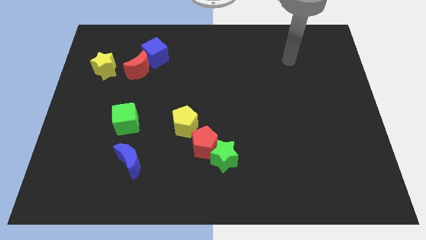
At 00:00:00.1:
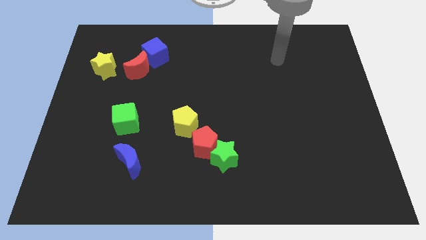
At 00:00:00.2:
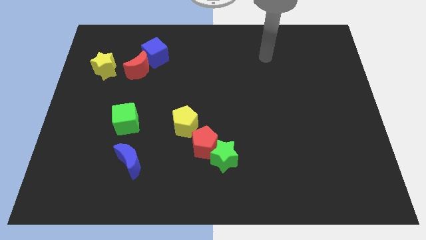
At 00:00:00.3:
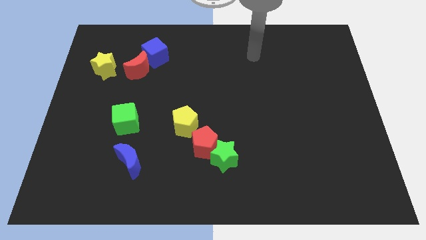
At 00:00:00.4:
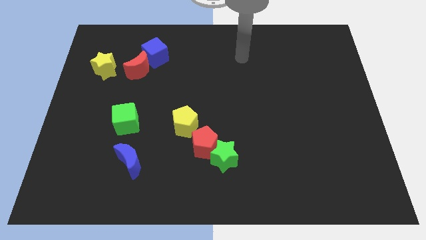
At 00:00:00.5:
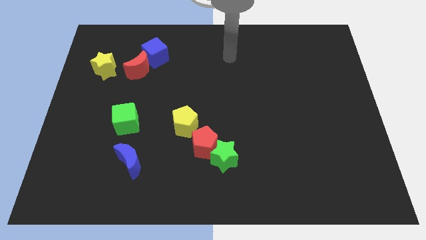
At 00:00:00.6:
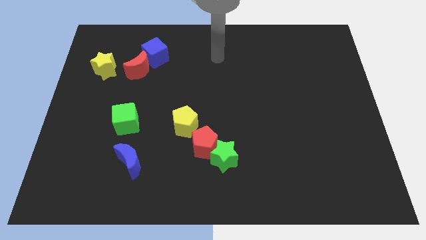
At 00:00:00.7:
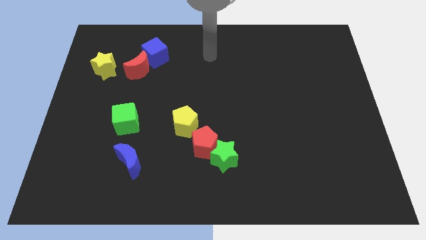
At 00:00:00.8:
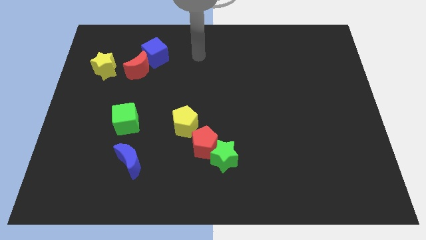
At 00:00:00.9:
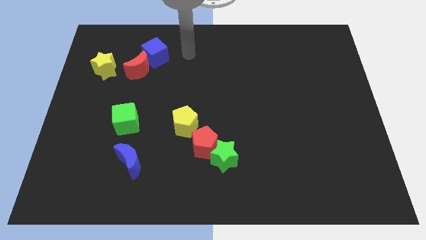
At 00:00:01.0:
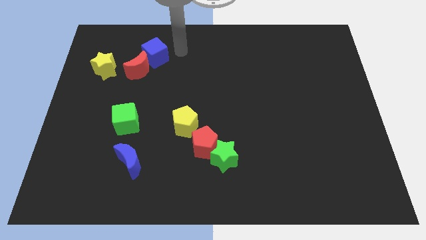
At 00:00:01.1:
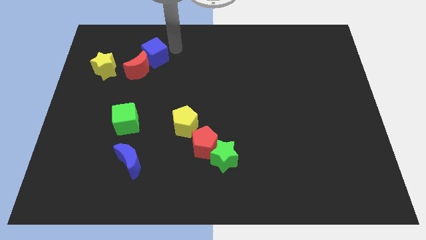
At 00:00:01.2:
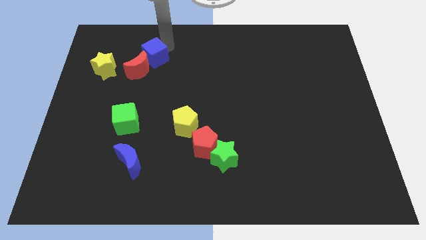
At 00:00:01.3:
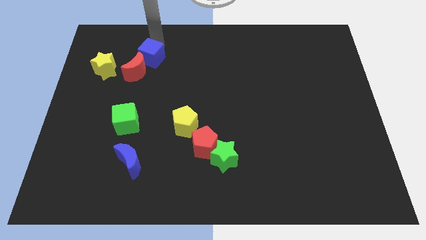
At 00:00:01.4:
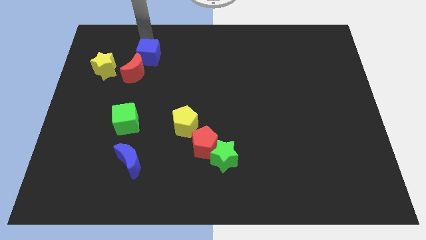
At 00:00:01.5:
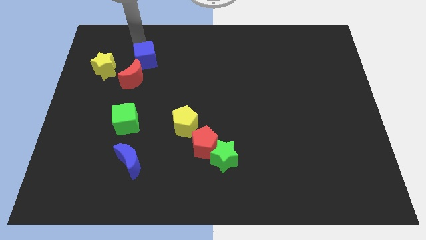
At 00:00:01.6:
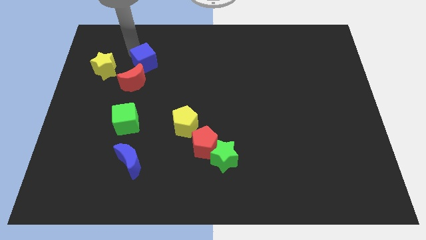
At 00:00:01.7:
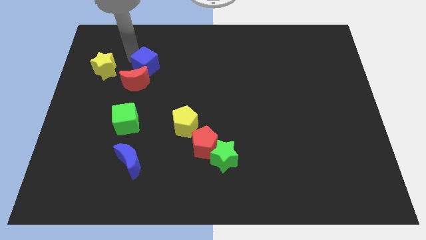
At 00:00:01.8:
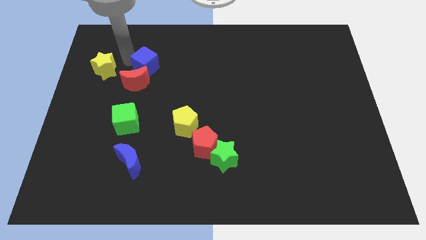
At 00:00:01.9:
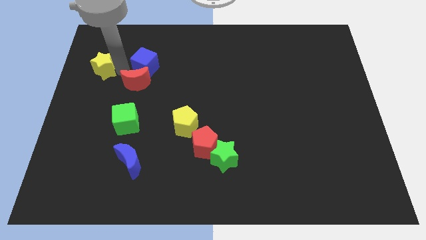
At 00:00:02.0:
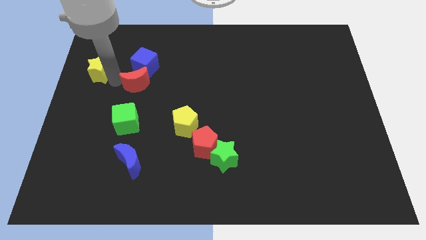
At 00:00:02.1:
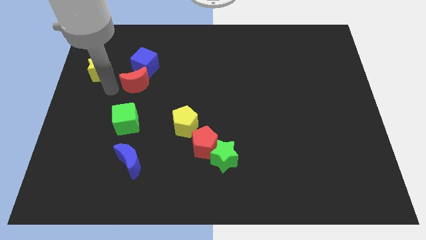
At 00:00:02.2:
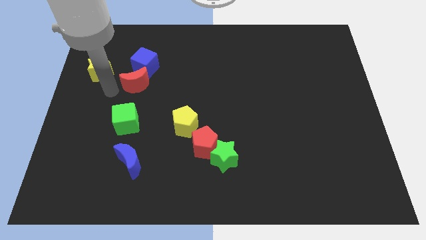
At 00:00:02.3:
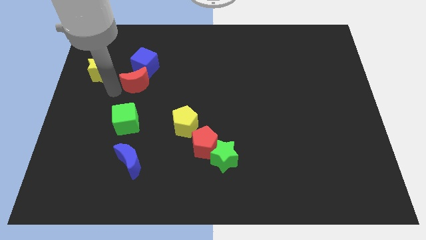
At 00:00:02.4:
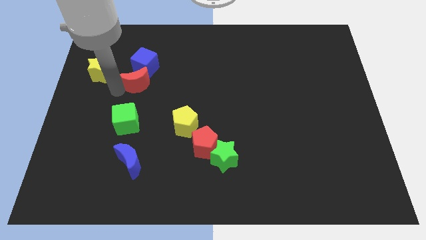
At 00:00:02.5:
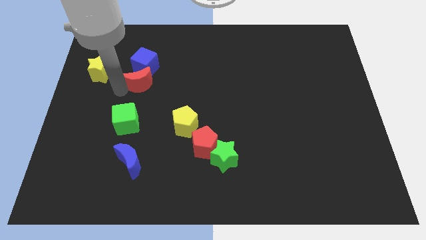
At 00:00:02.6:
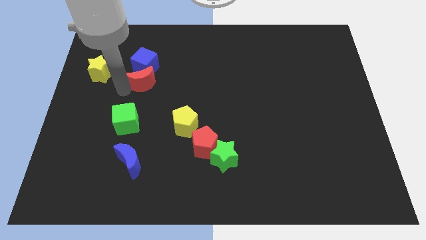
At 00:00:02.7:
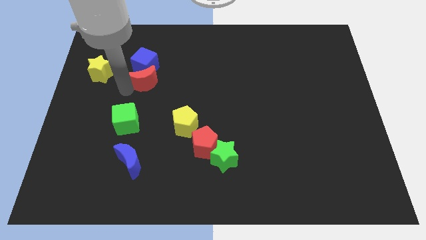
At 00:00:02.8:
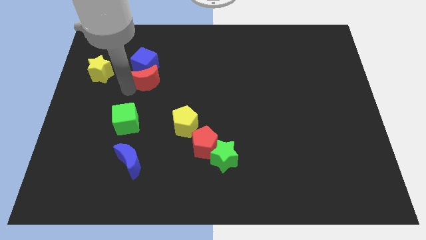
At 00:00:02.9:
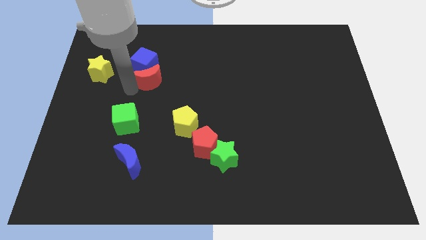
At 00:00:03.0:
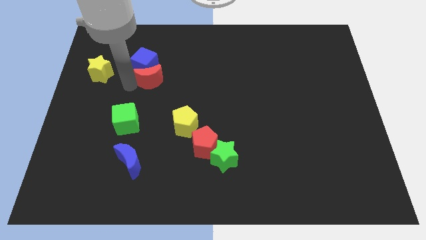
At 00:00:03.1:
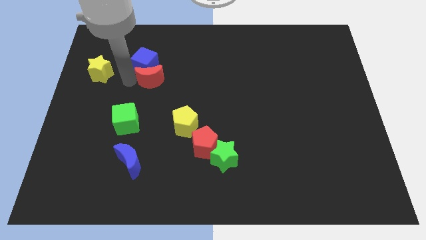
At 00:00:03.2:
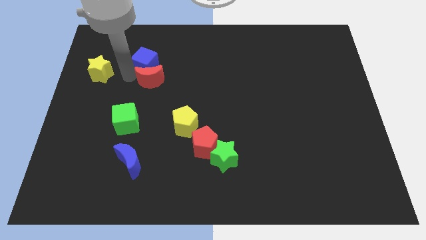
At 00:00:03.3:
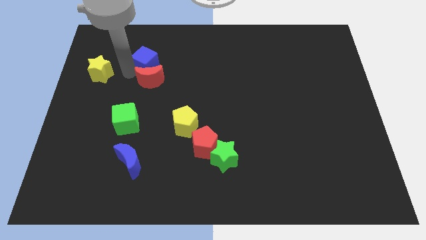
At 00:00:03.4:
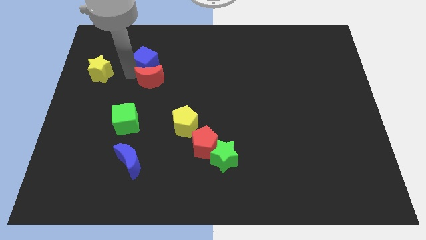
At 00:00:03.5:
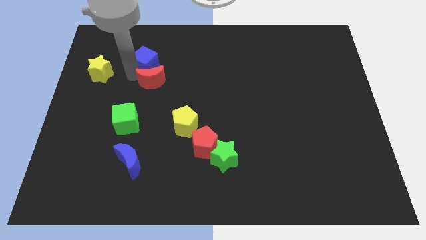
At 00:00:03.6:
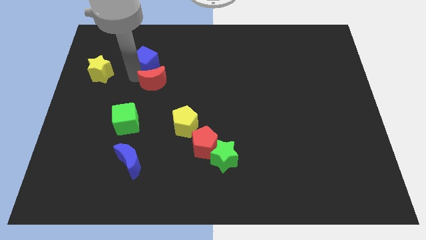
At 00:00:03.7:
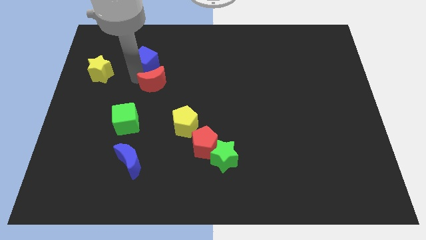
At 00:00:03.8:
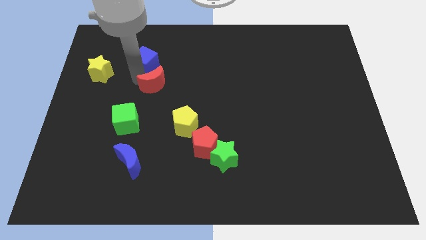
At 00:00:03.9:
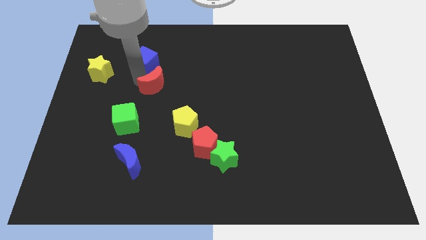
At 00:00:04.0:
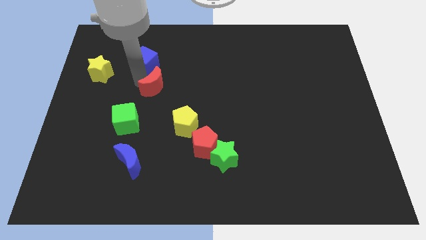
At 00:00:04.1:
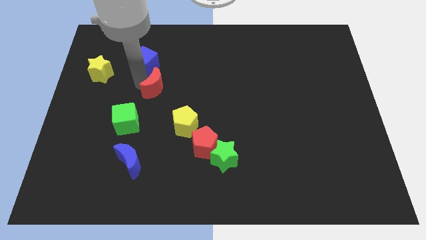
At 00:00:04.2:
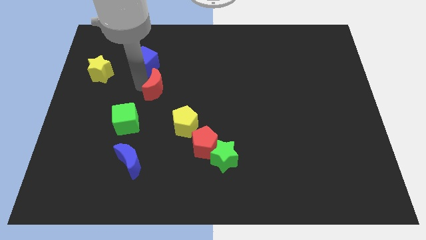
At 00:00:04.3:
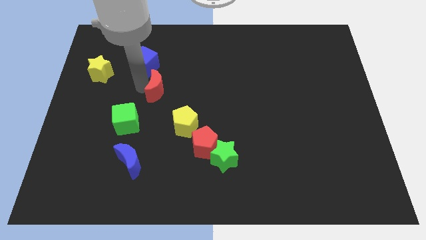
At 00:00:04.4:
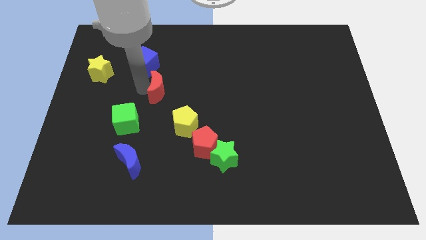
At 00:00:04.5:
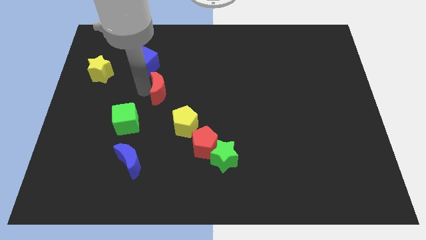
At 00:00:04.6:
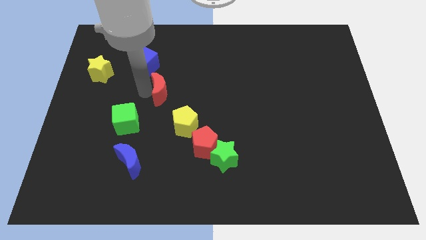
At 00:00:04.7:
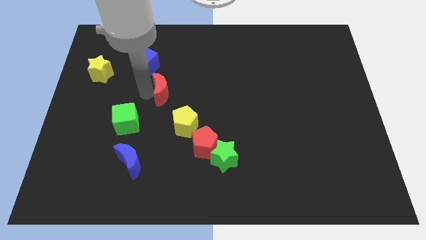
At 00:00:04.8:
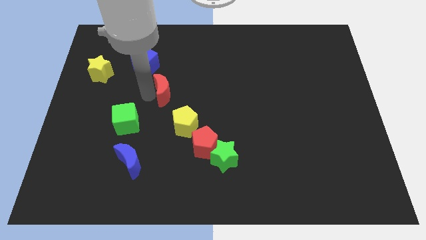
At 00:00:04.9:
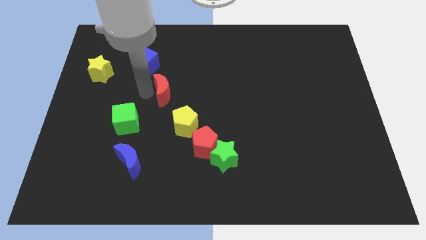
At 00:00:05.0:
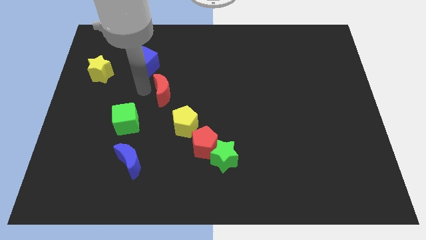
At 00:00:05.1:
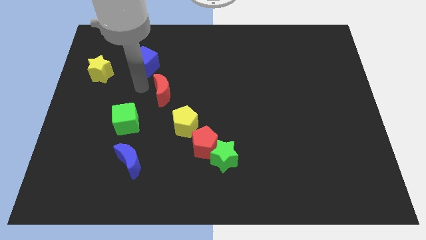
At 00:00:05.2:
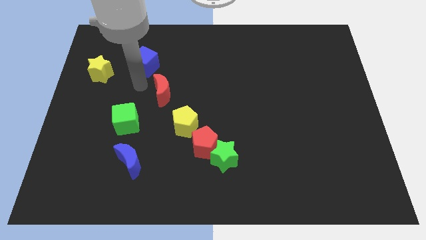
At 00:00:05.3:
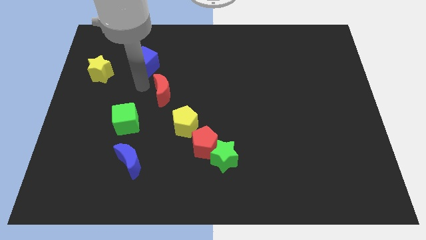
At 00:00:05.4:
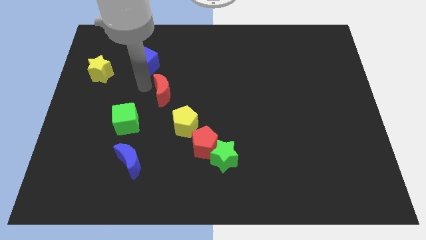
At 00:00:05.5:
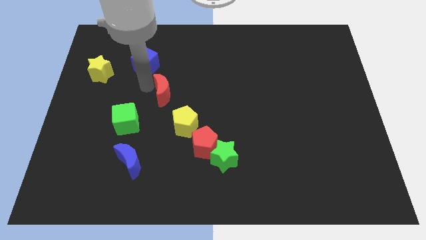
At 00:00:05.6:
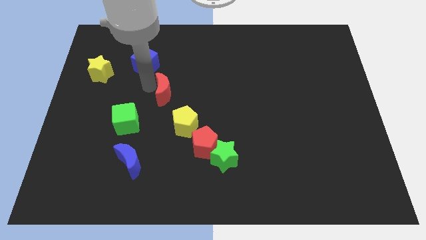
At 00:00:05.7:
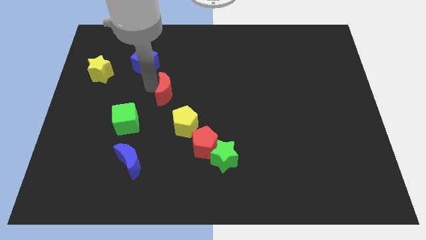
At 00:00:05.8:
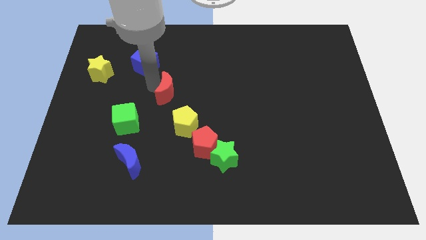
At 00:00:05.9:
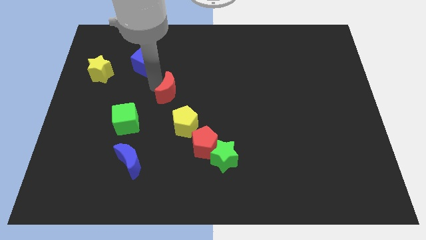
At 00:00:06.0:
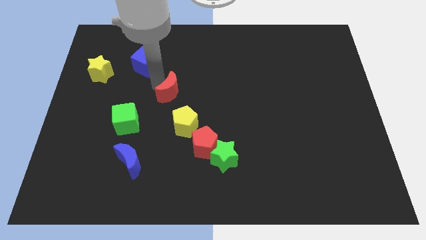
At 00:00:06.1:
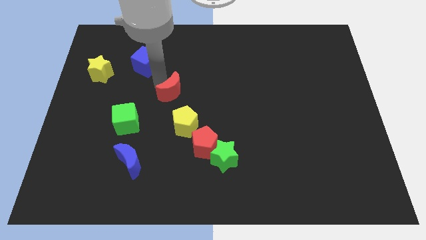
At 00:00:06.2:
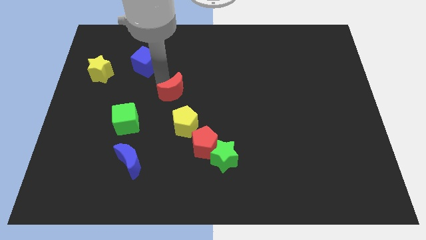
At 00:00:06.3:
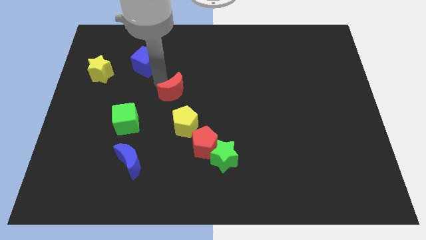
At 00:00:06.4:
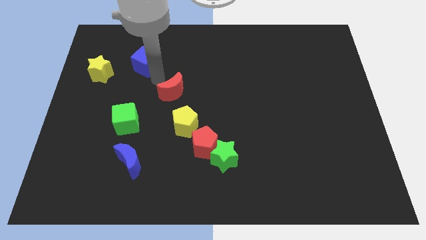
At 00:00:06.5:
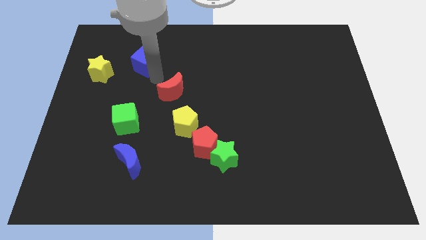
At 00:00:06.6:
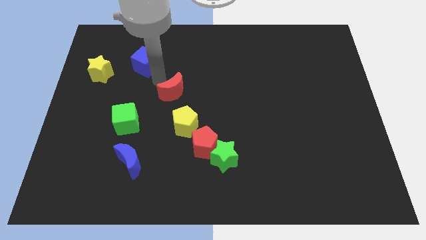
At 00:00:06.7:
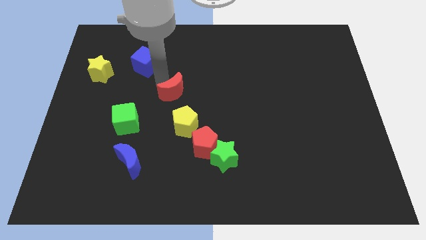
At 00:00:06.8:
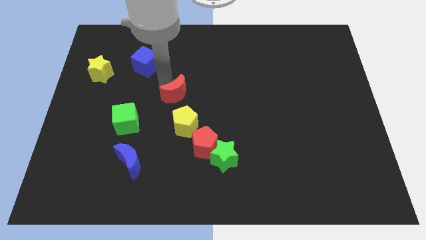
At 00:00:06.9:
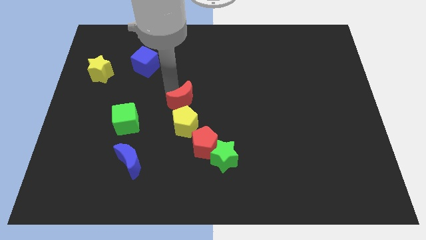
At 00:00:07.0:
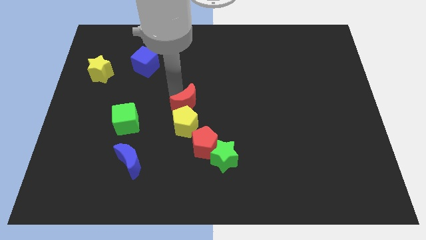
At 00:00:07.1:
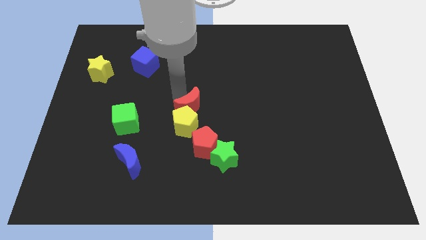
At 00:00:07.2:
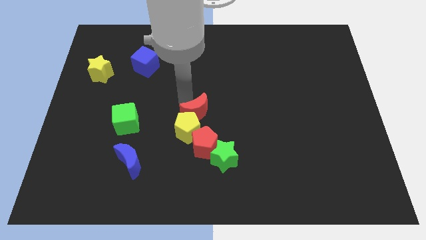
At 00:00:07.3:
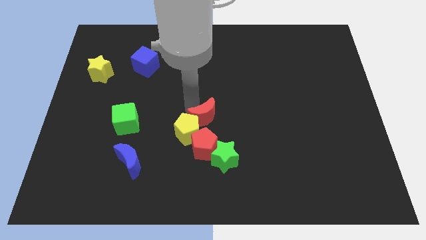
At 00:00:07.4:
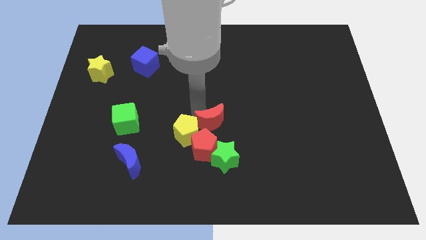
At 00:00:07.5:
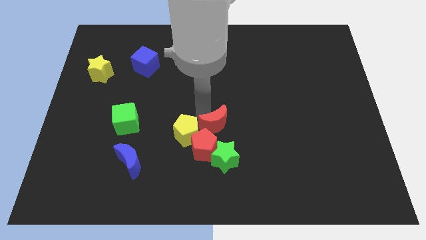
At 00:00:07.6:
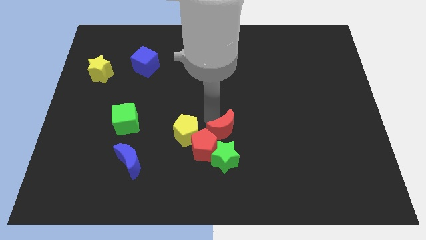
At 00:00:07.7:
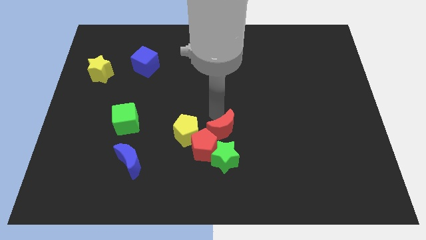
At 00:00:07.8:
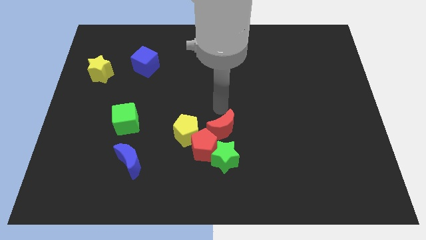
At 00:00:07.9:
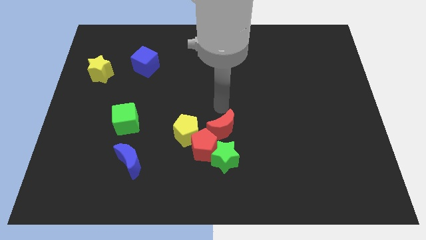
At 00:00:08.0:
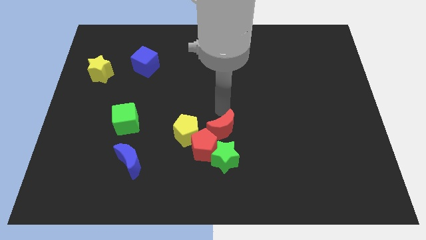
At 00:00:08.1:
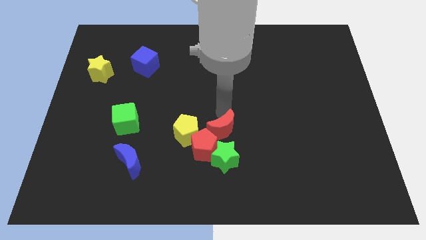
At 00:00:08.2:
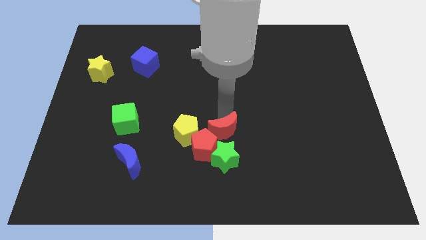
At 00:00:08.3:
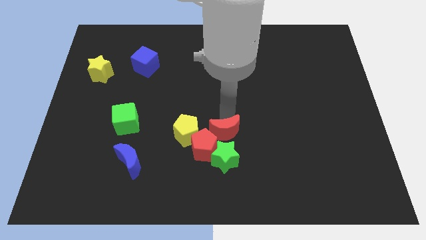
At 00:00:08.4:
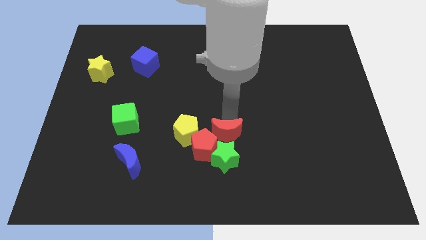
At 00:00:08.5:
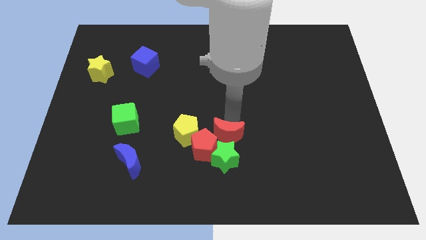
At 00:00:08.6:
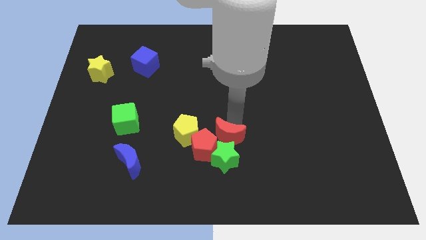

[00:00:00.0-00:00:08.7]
put the red moon to the green star
